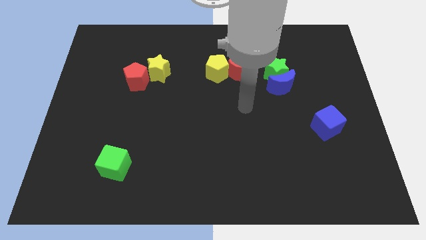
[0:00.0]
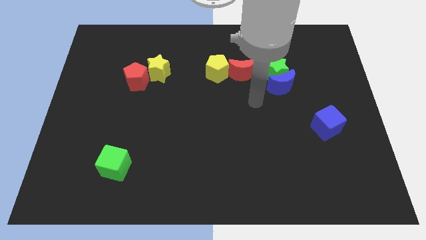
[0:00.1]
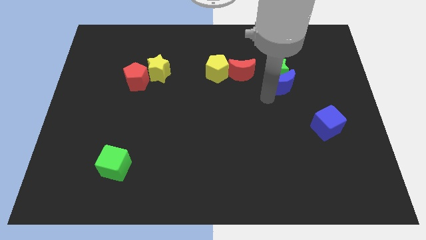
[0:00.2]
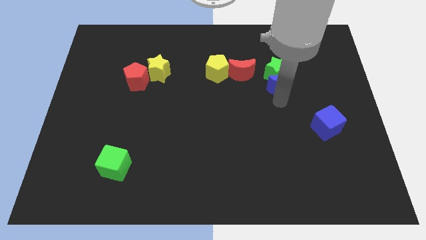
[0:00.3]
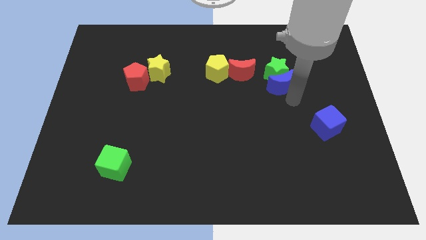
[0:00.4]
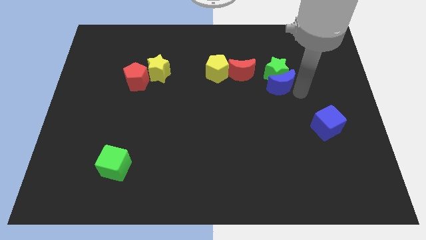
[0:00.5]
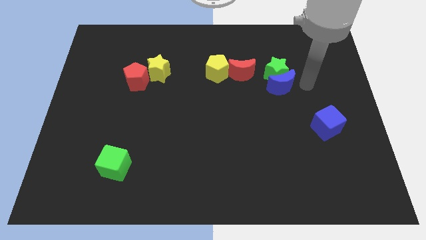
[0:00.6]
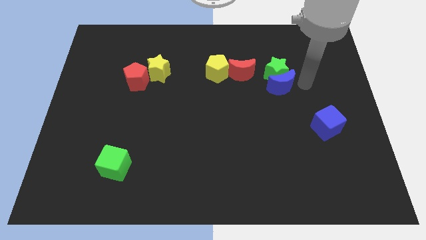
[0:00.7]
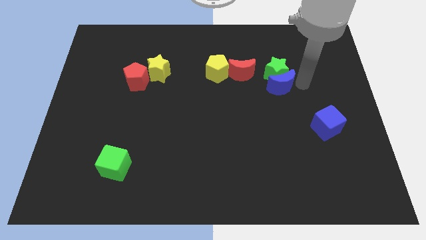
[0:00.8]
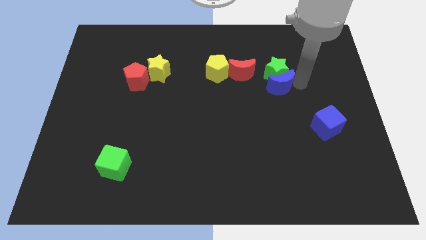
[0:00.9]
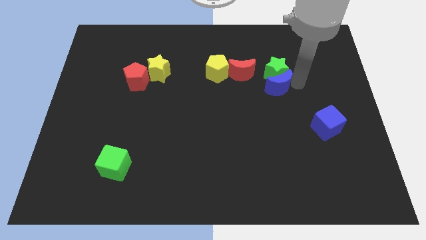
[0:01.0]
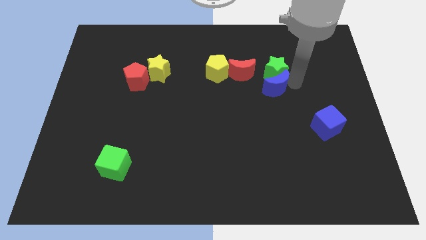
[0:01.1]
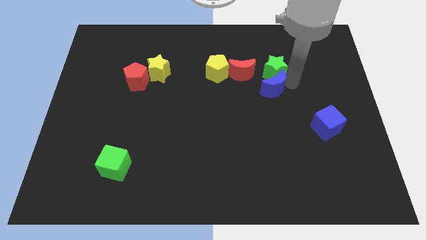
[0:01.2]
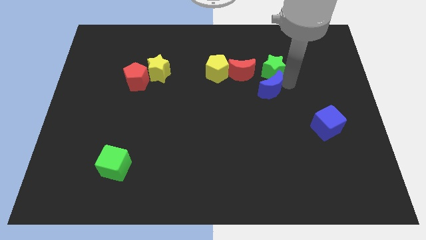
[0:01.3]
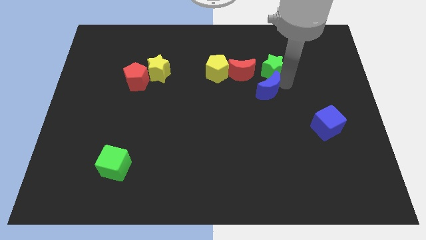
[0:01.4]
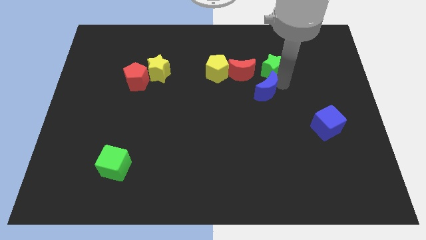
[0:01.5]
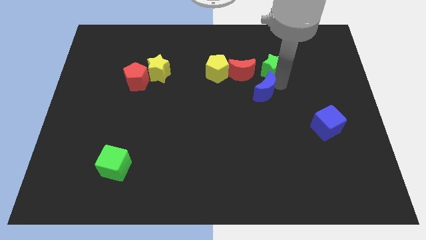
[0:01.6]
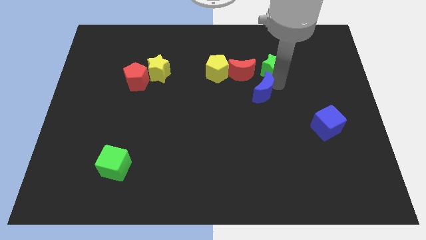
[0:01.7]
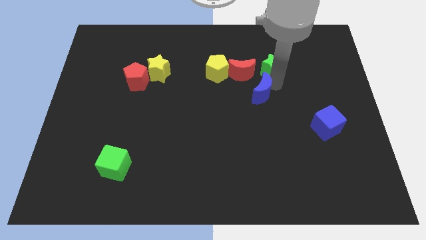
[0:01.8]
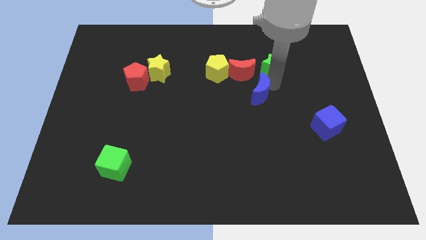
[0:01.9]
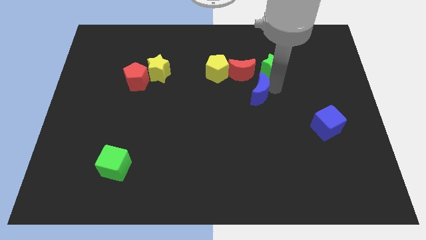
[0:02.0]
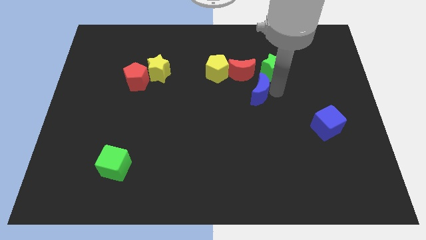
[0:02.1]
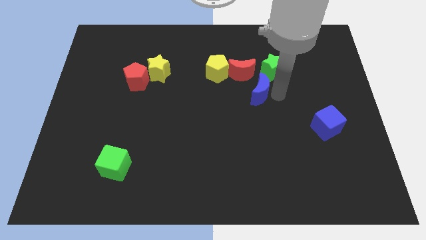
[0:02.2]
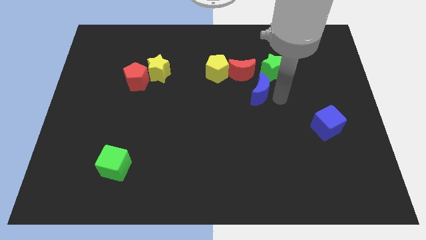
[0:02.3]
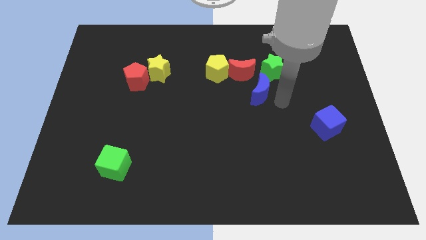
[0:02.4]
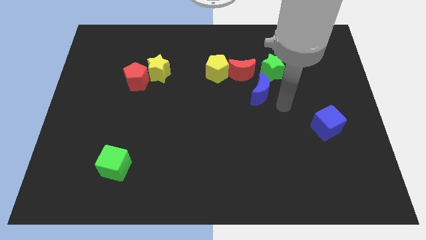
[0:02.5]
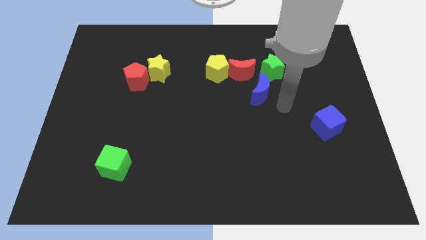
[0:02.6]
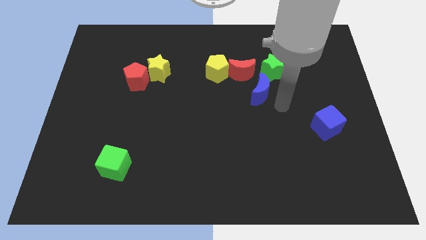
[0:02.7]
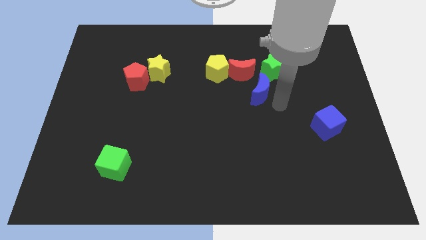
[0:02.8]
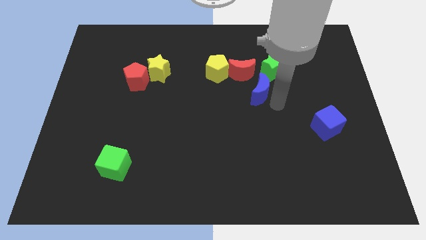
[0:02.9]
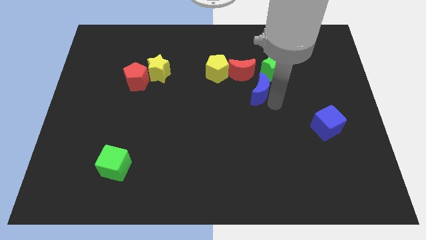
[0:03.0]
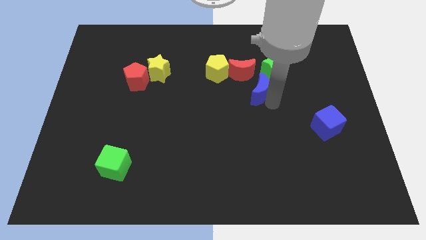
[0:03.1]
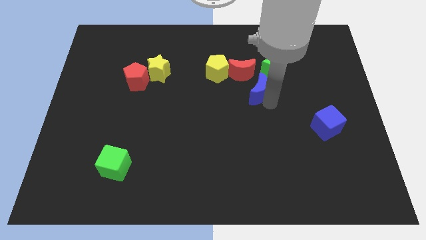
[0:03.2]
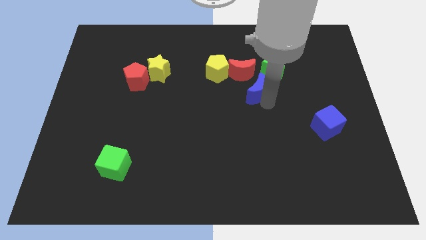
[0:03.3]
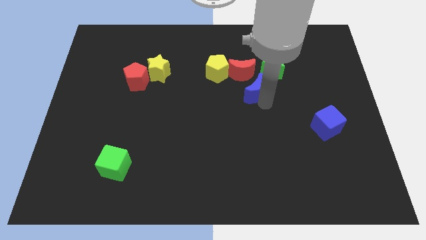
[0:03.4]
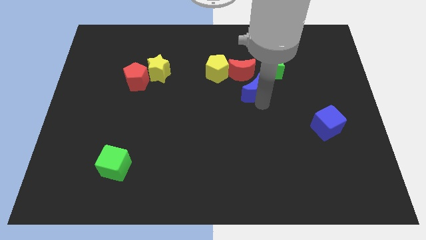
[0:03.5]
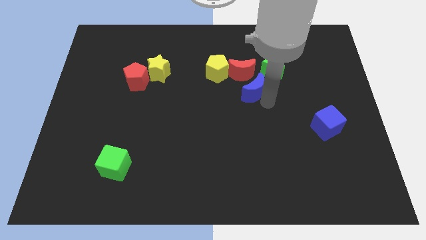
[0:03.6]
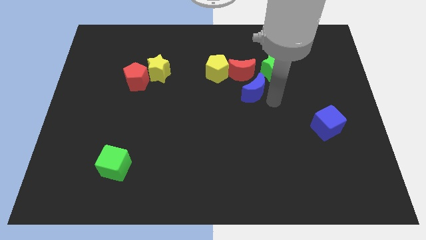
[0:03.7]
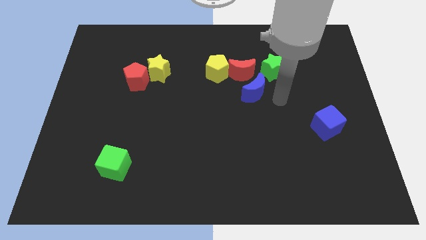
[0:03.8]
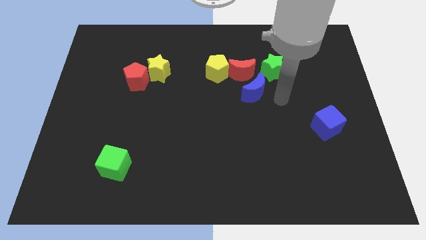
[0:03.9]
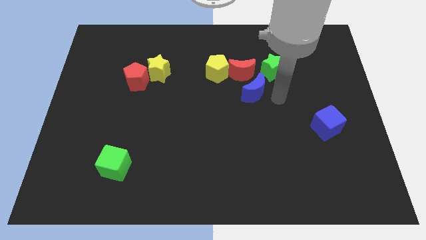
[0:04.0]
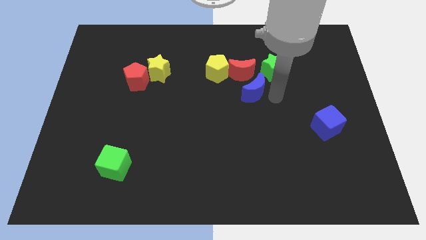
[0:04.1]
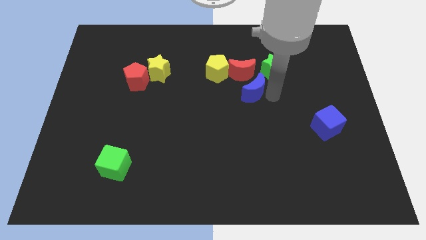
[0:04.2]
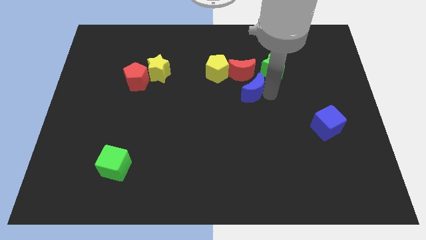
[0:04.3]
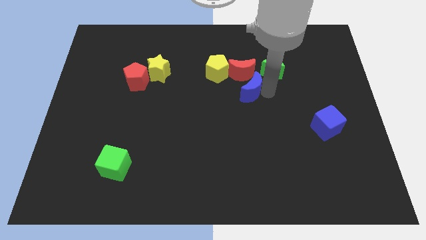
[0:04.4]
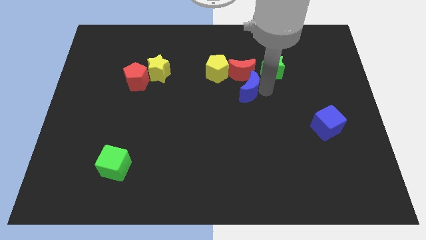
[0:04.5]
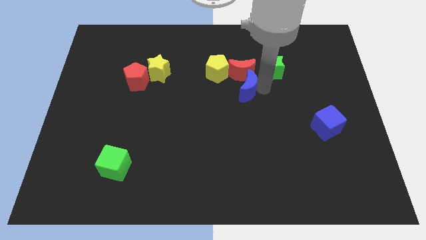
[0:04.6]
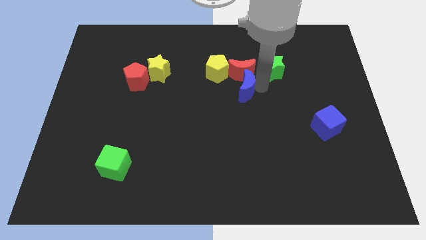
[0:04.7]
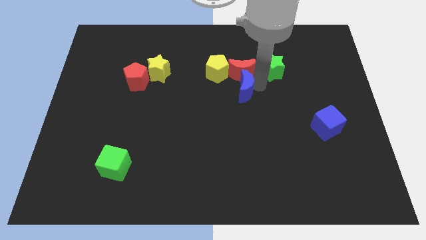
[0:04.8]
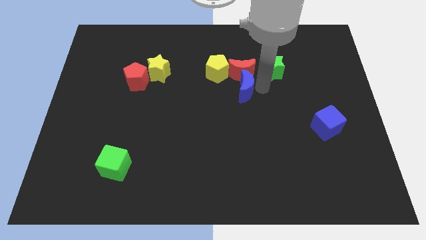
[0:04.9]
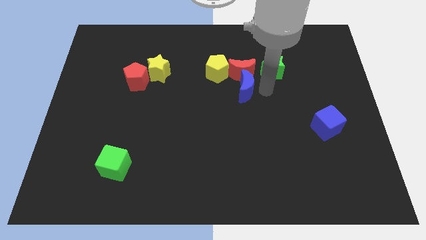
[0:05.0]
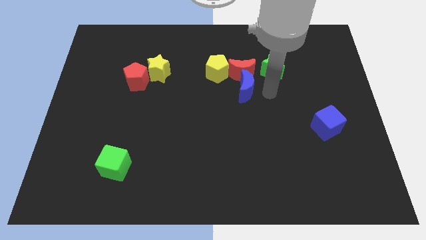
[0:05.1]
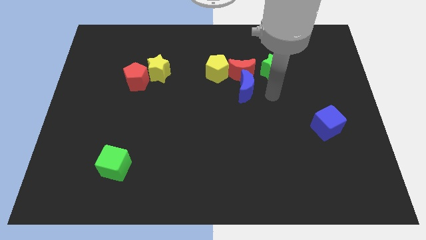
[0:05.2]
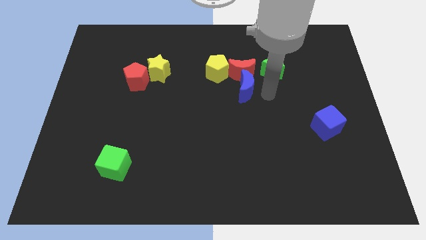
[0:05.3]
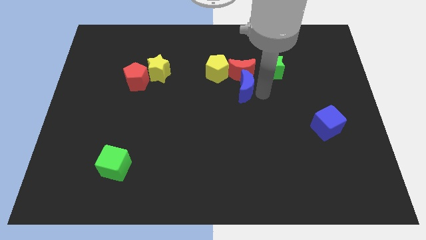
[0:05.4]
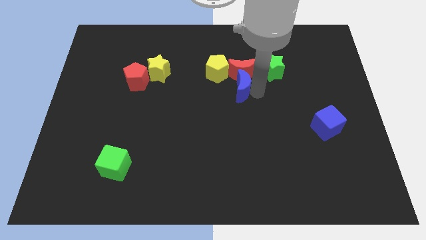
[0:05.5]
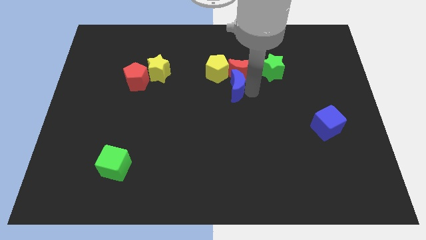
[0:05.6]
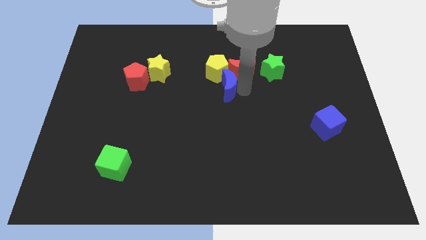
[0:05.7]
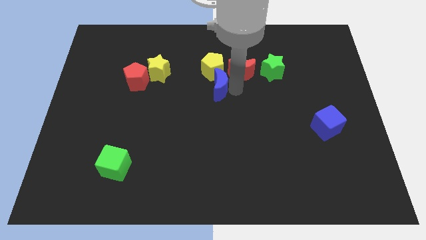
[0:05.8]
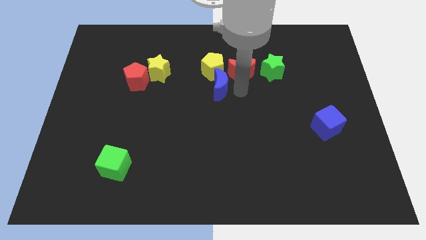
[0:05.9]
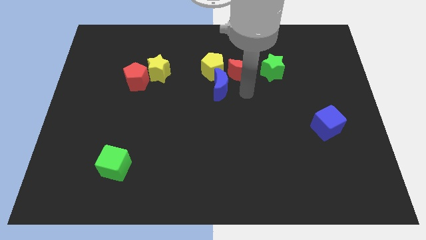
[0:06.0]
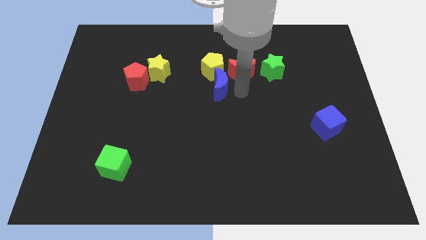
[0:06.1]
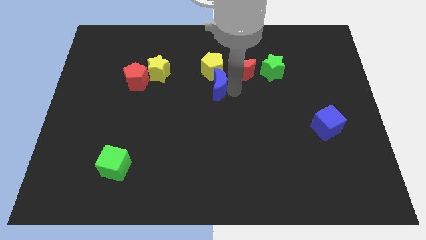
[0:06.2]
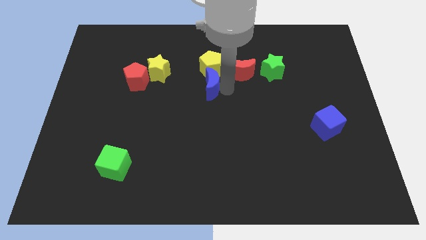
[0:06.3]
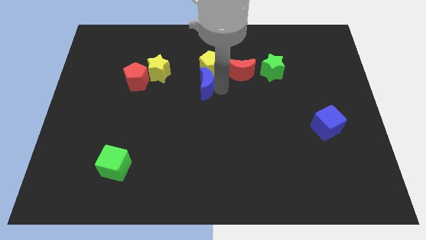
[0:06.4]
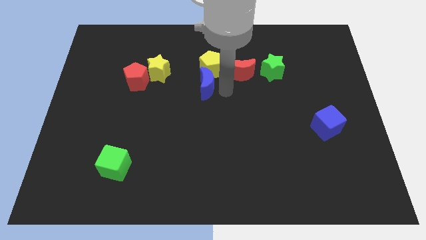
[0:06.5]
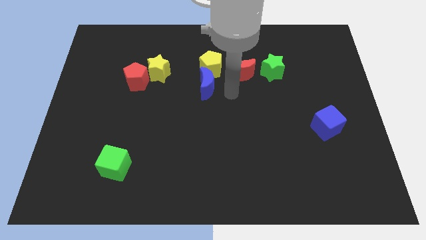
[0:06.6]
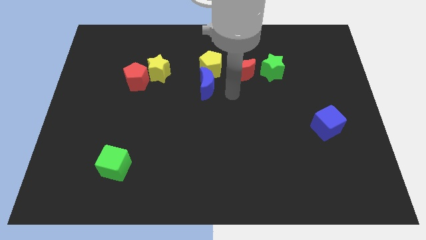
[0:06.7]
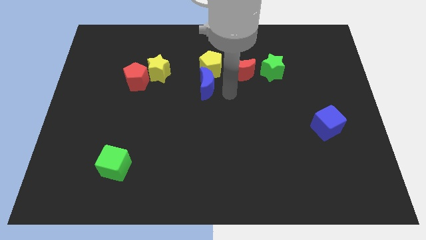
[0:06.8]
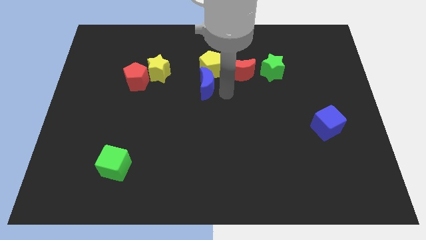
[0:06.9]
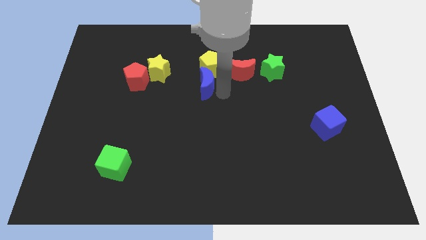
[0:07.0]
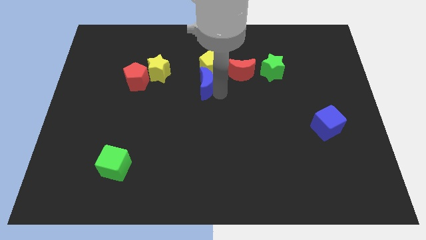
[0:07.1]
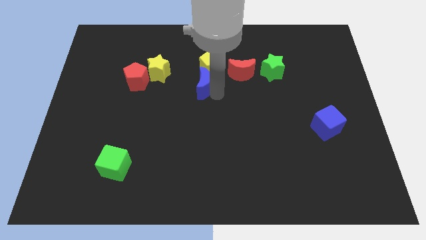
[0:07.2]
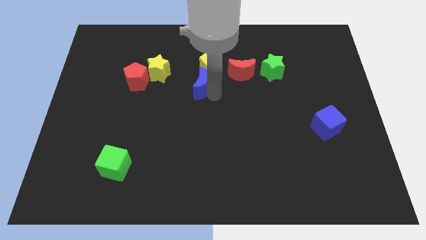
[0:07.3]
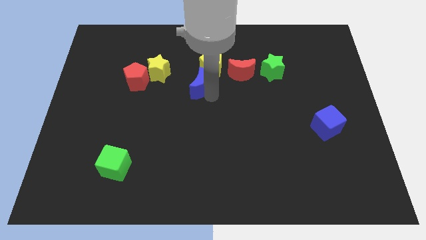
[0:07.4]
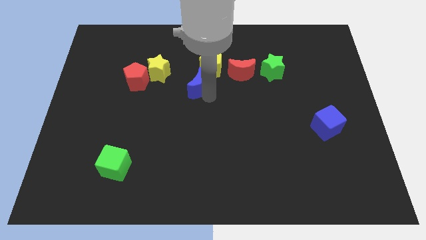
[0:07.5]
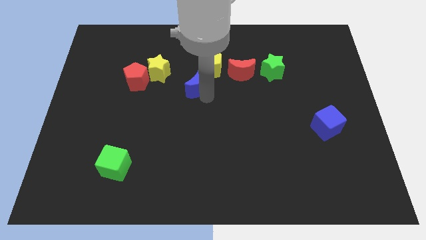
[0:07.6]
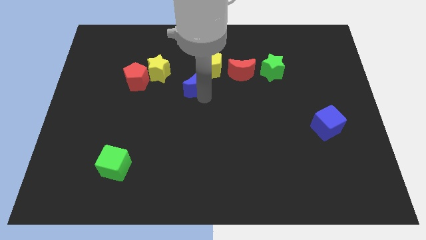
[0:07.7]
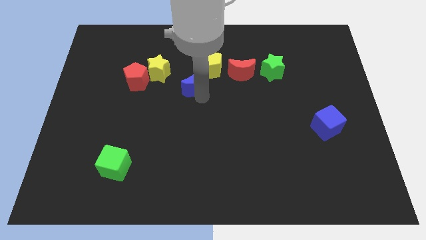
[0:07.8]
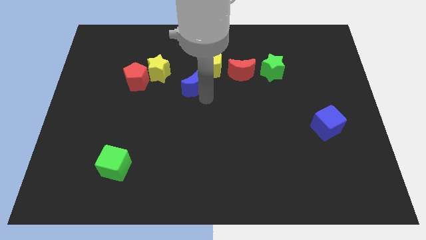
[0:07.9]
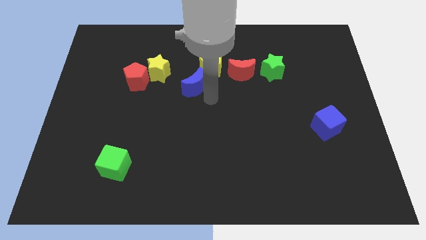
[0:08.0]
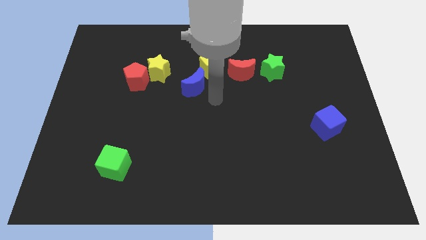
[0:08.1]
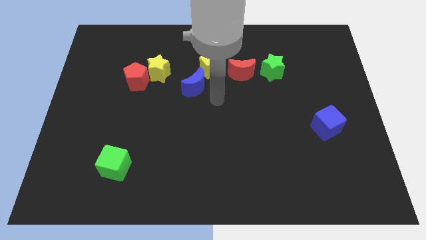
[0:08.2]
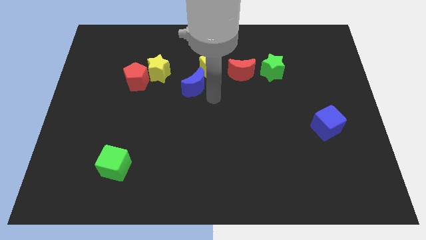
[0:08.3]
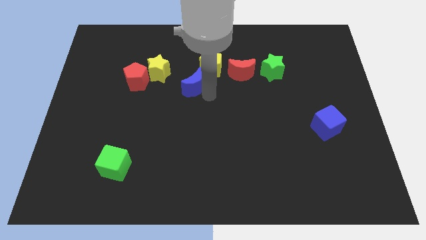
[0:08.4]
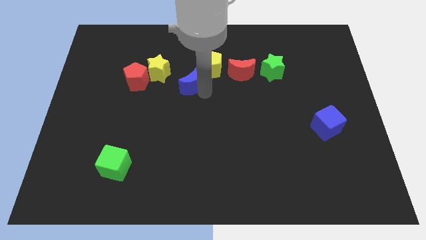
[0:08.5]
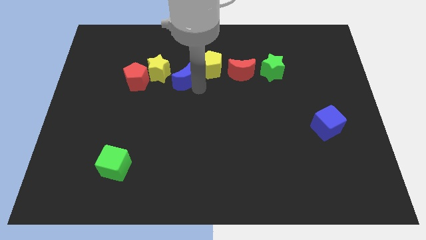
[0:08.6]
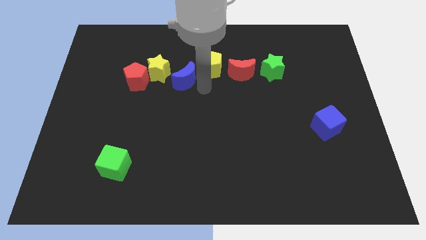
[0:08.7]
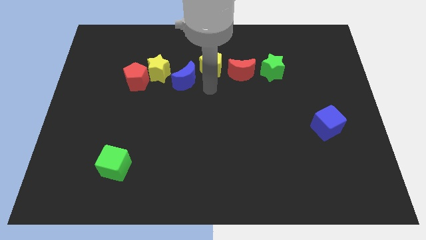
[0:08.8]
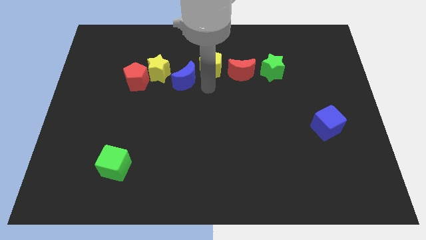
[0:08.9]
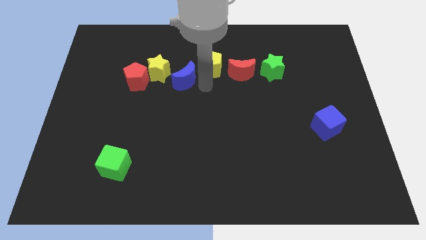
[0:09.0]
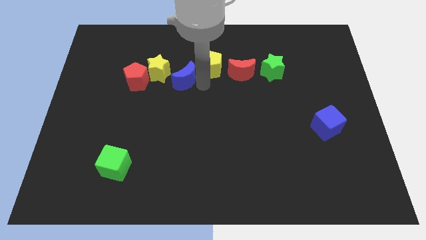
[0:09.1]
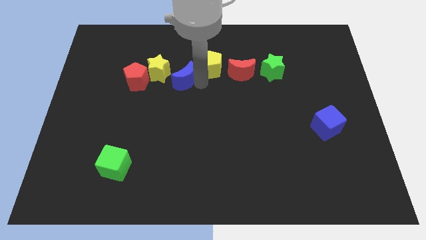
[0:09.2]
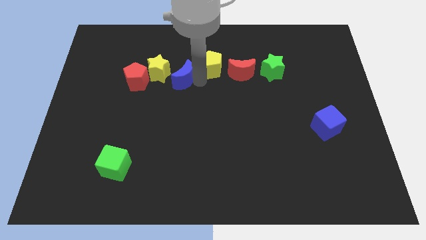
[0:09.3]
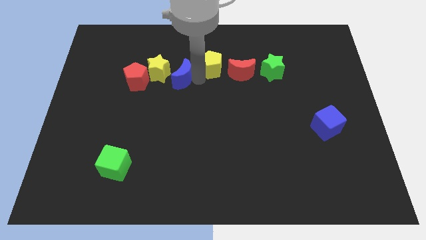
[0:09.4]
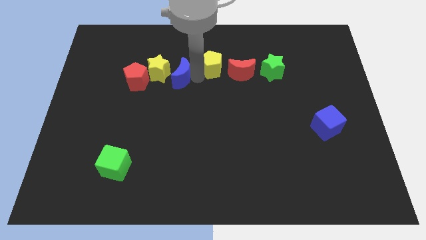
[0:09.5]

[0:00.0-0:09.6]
move the blue moon next to the yellow star
